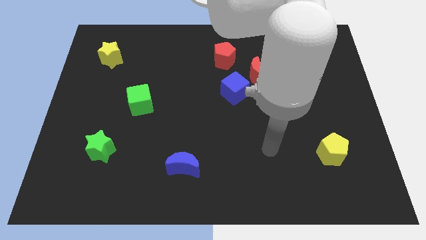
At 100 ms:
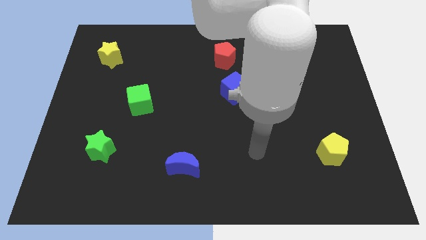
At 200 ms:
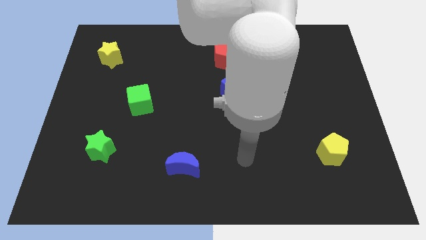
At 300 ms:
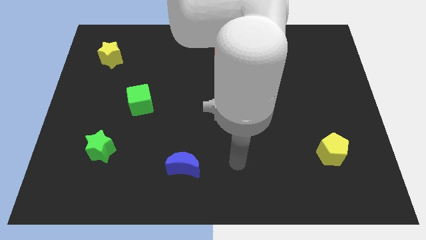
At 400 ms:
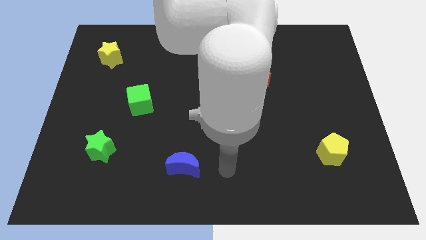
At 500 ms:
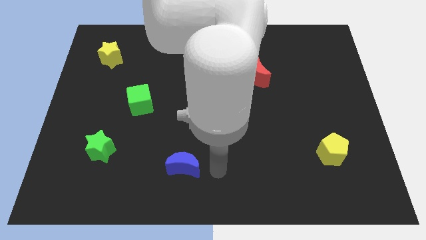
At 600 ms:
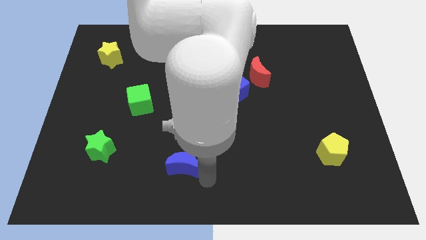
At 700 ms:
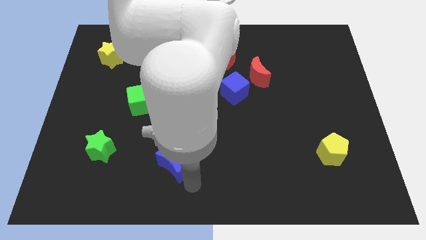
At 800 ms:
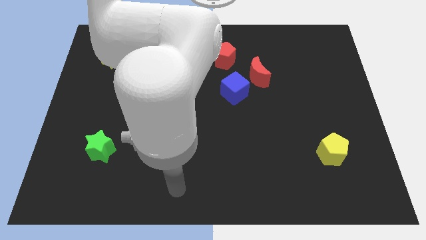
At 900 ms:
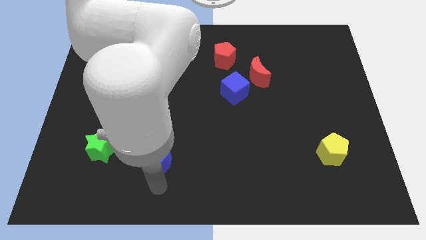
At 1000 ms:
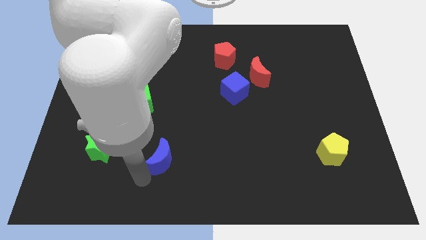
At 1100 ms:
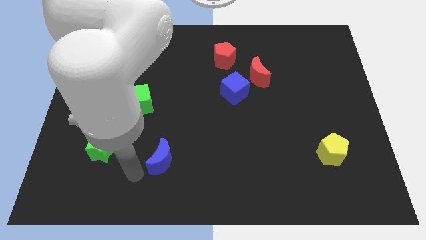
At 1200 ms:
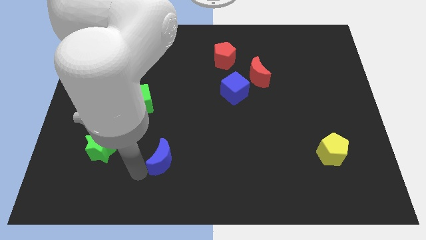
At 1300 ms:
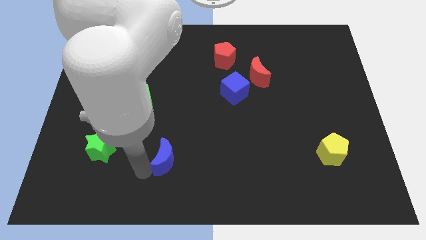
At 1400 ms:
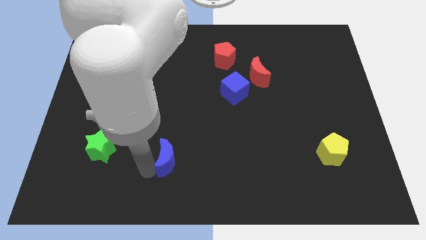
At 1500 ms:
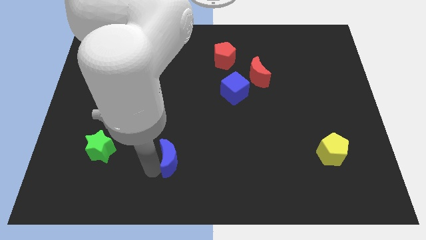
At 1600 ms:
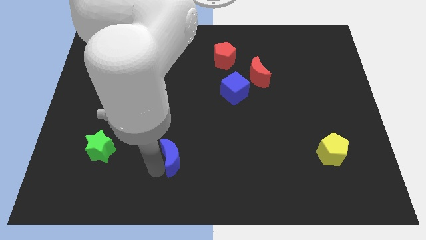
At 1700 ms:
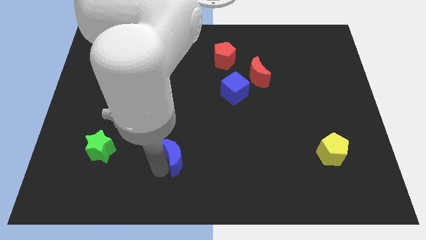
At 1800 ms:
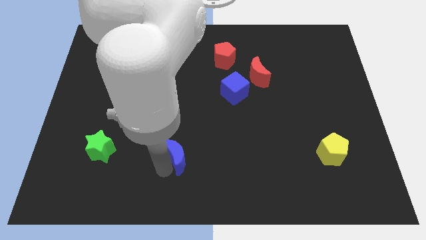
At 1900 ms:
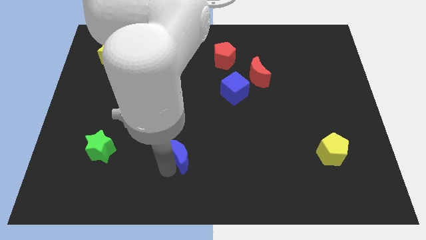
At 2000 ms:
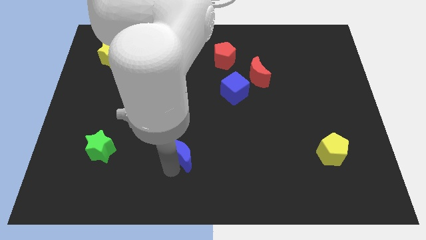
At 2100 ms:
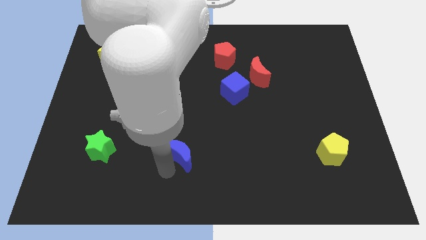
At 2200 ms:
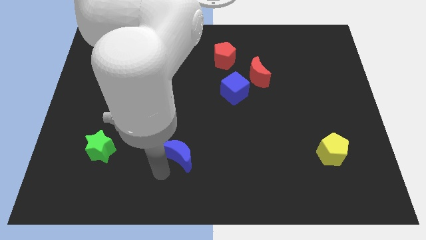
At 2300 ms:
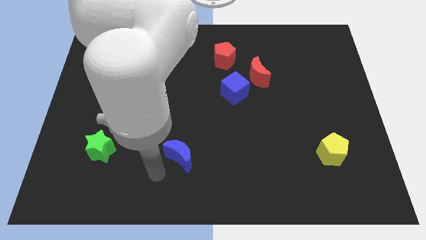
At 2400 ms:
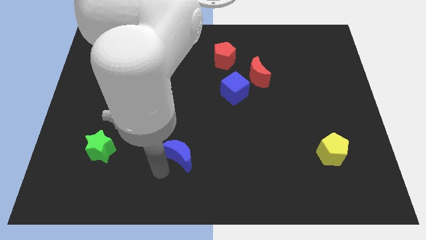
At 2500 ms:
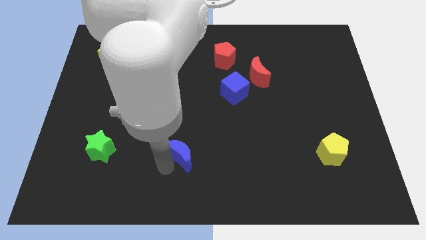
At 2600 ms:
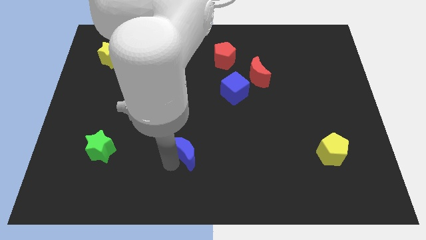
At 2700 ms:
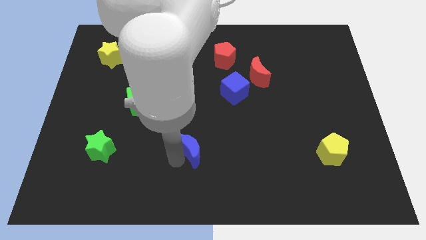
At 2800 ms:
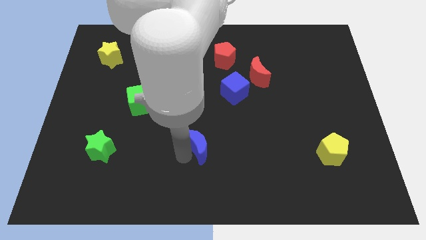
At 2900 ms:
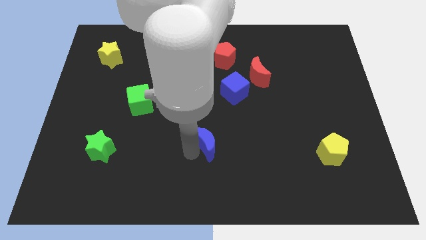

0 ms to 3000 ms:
move the blue moon a bit up and to the right diagonally

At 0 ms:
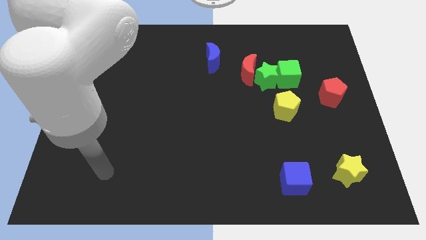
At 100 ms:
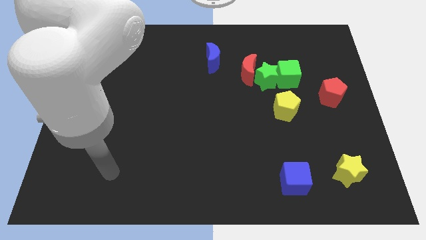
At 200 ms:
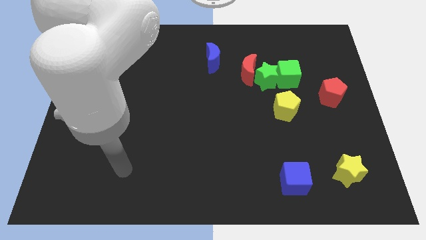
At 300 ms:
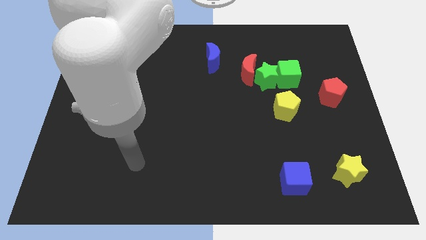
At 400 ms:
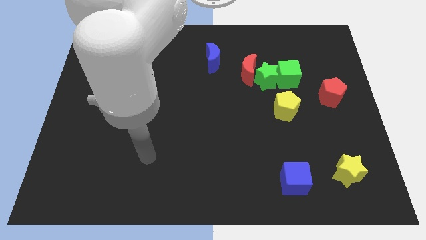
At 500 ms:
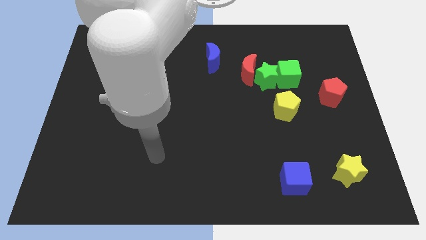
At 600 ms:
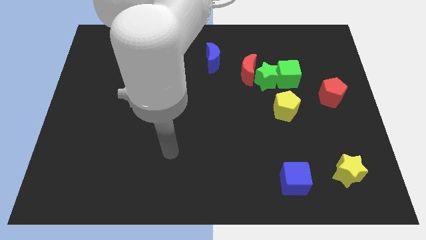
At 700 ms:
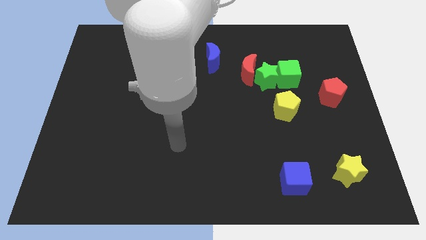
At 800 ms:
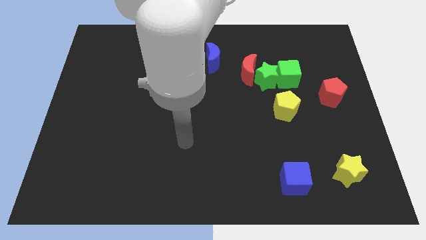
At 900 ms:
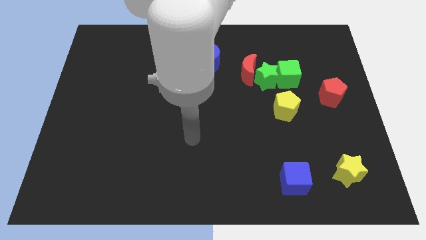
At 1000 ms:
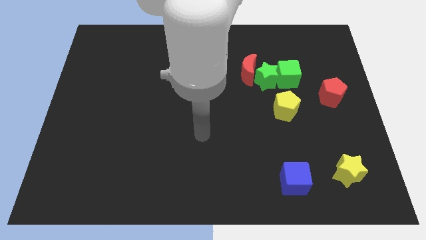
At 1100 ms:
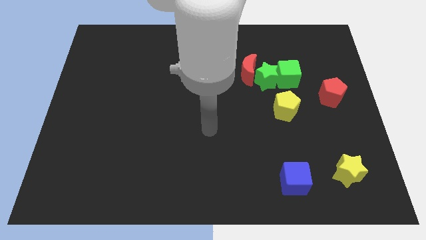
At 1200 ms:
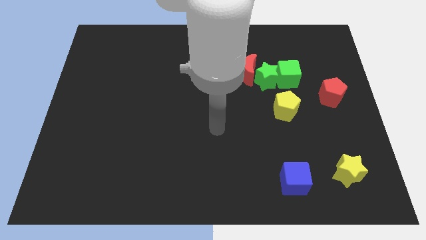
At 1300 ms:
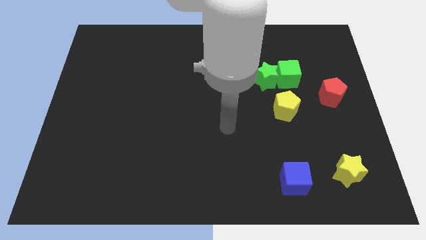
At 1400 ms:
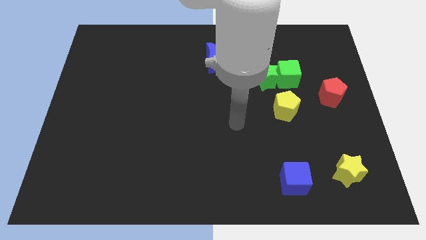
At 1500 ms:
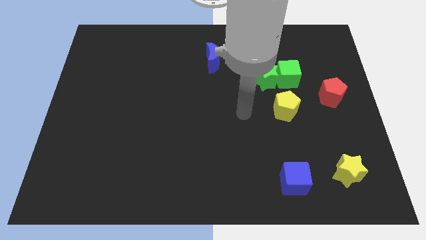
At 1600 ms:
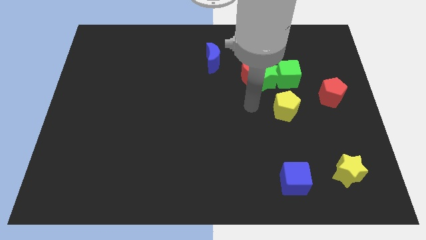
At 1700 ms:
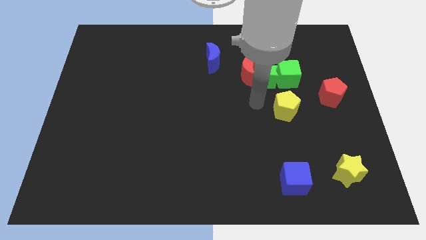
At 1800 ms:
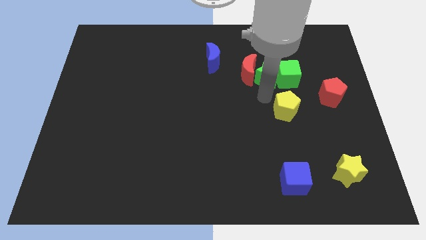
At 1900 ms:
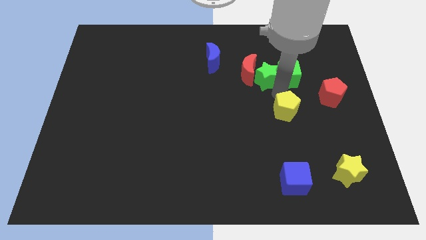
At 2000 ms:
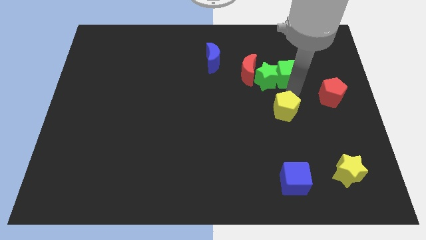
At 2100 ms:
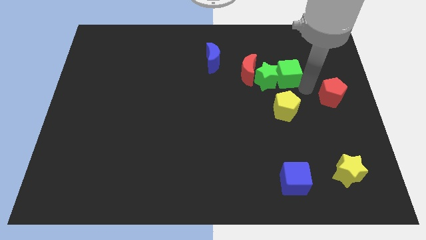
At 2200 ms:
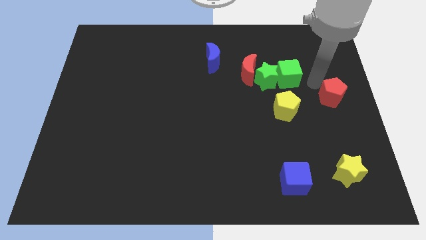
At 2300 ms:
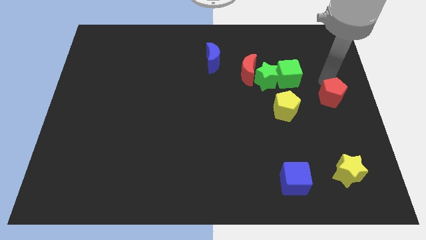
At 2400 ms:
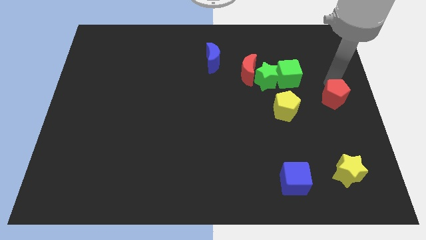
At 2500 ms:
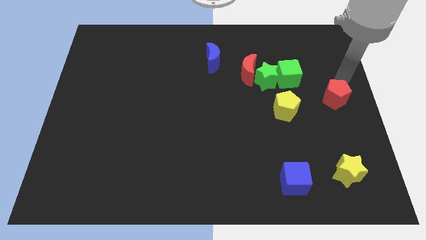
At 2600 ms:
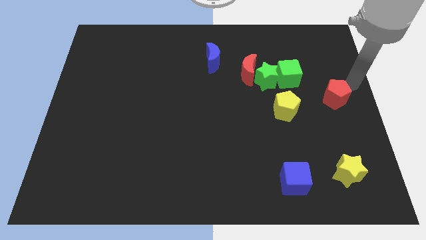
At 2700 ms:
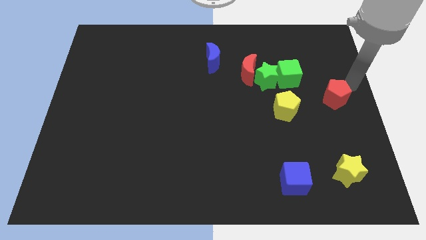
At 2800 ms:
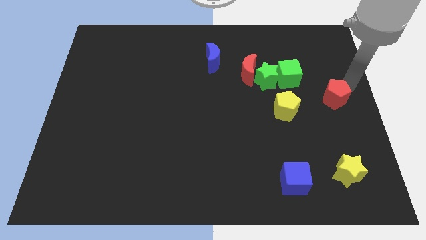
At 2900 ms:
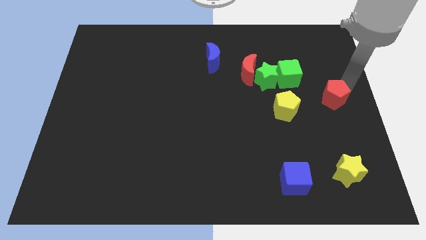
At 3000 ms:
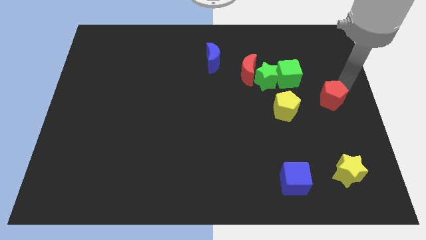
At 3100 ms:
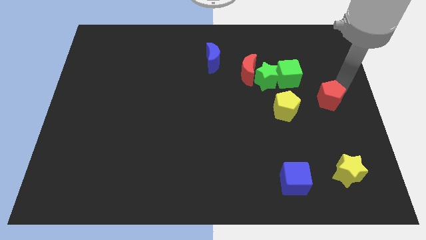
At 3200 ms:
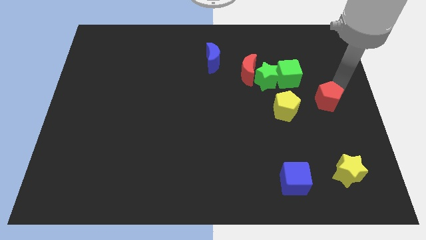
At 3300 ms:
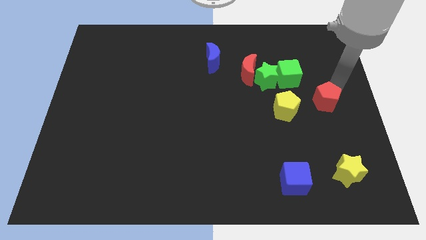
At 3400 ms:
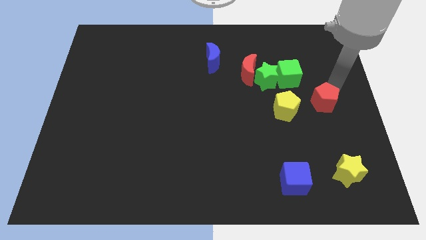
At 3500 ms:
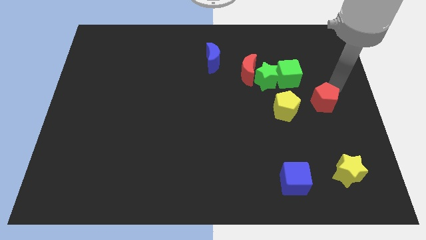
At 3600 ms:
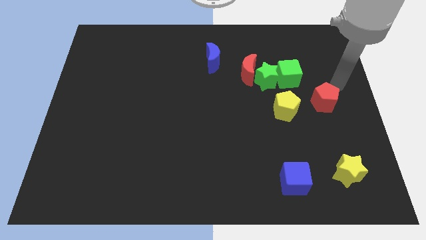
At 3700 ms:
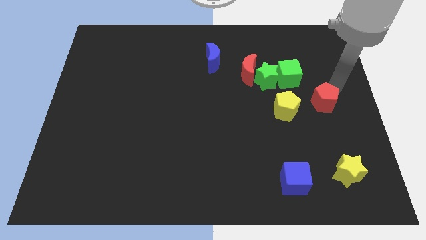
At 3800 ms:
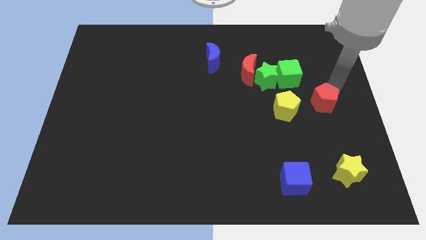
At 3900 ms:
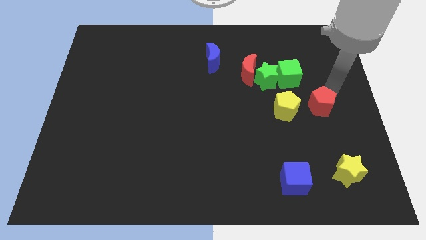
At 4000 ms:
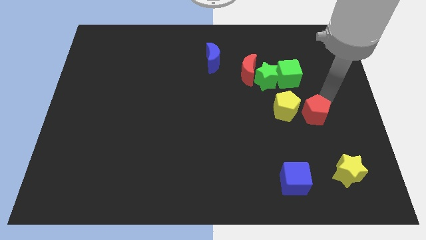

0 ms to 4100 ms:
slightly push the red pentagon down and to the left

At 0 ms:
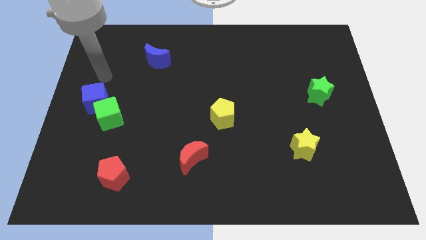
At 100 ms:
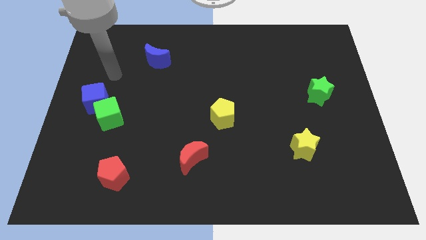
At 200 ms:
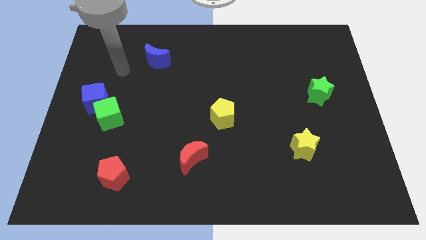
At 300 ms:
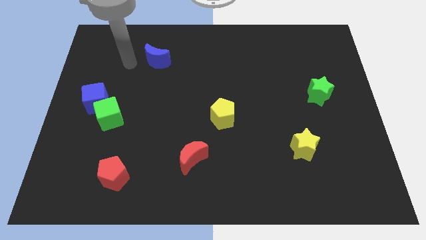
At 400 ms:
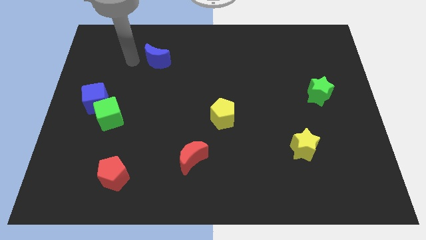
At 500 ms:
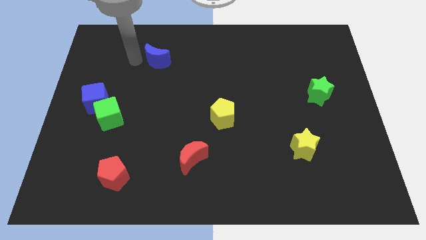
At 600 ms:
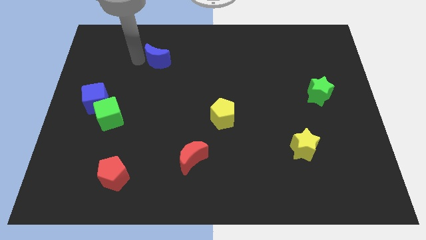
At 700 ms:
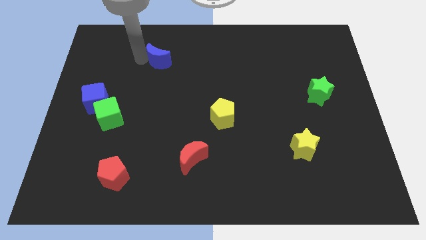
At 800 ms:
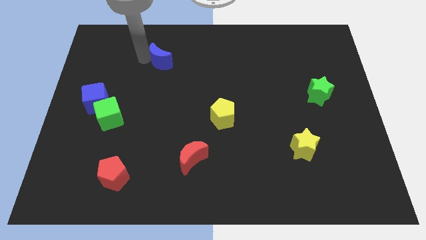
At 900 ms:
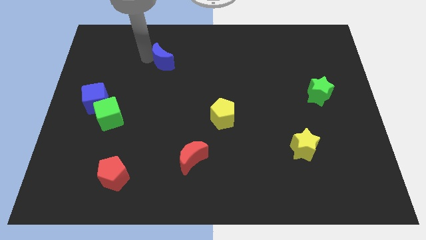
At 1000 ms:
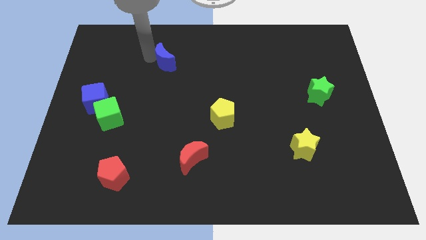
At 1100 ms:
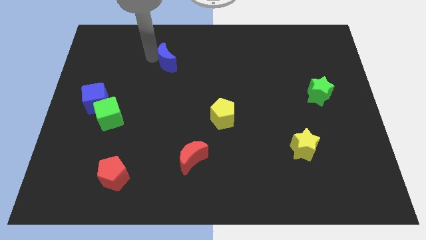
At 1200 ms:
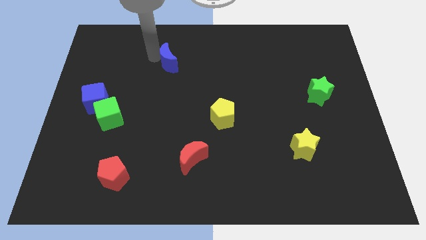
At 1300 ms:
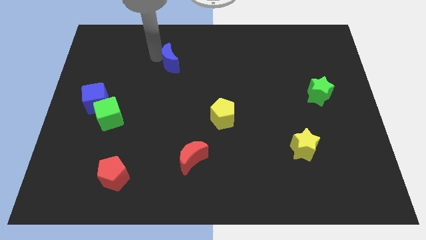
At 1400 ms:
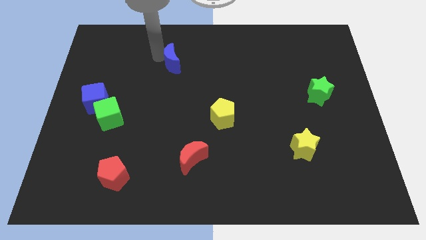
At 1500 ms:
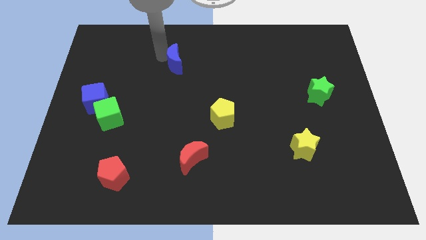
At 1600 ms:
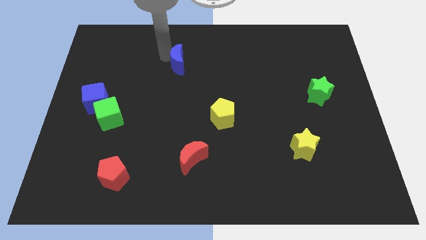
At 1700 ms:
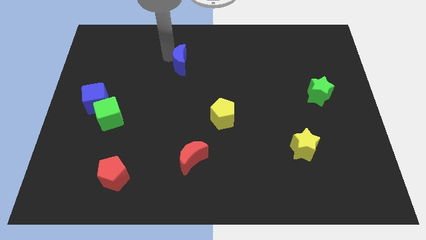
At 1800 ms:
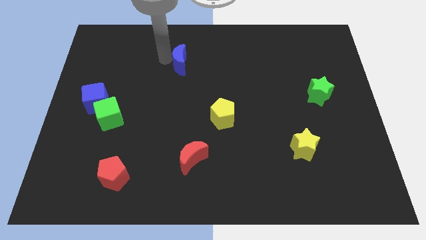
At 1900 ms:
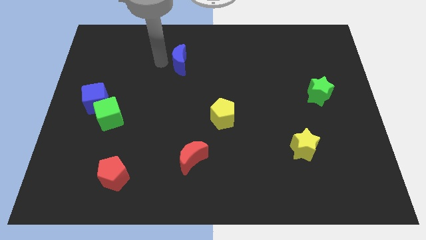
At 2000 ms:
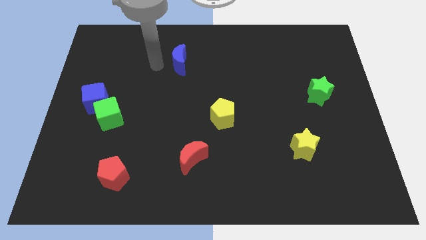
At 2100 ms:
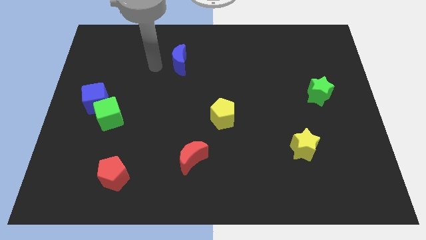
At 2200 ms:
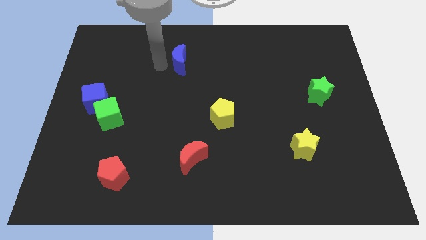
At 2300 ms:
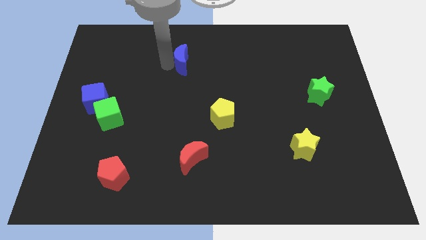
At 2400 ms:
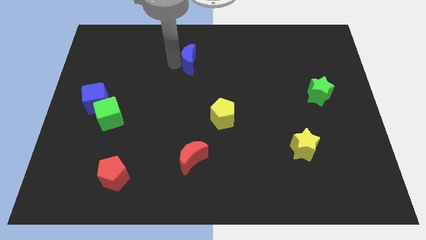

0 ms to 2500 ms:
slightly push the blue moon right
